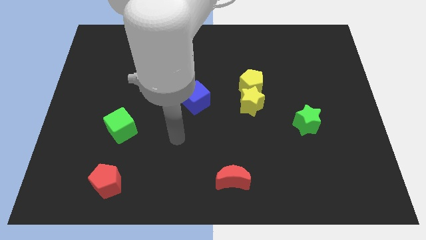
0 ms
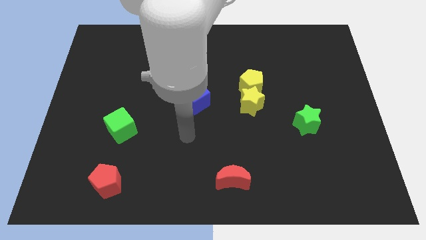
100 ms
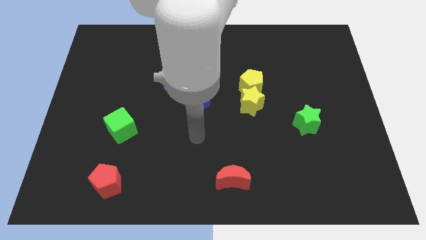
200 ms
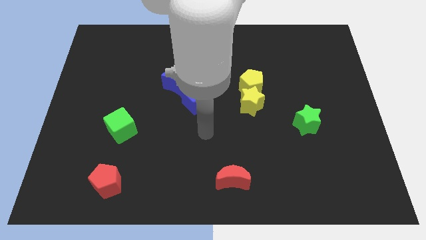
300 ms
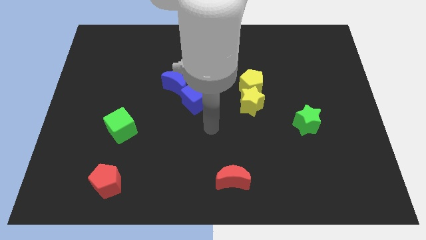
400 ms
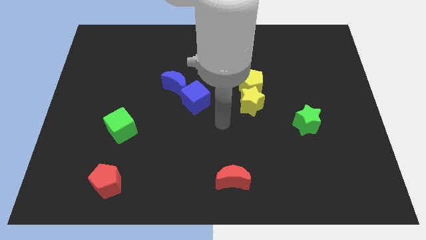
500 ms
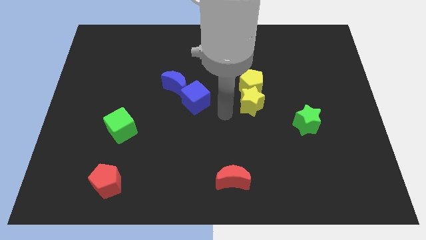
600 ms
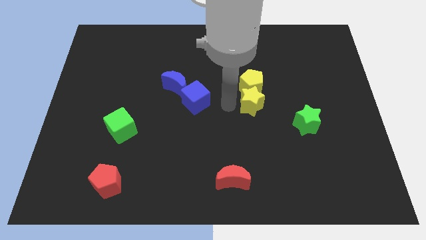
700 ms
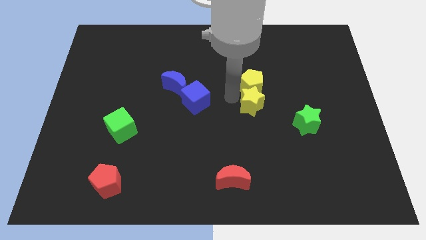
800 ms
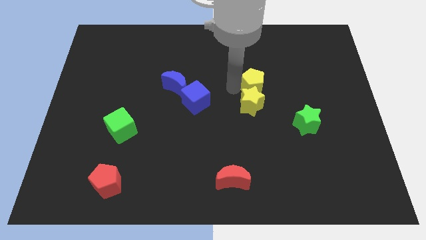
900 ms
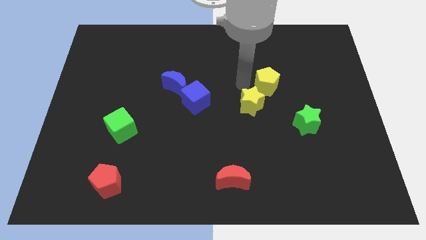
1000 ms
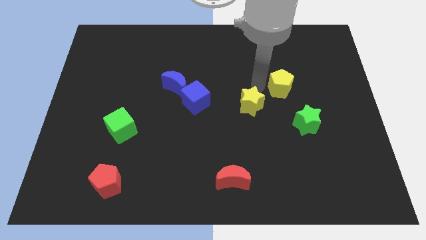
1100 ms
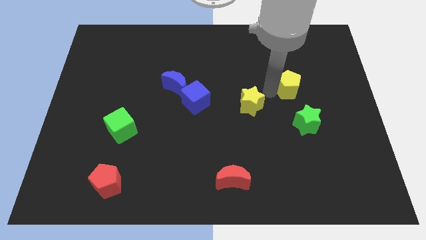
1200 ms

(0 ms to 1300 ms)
separate the yellow star from the yellow pentagon

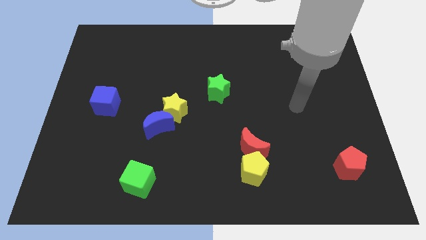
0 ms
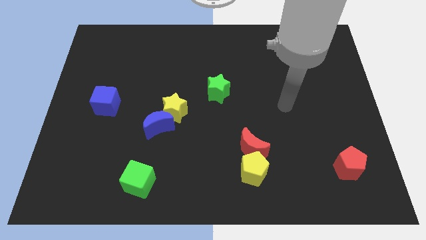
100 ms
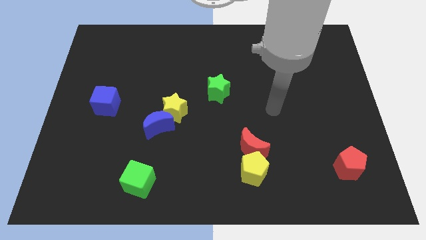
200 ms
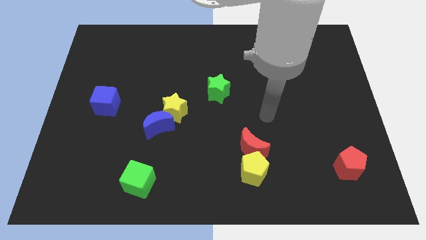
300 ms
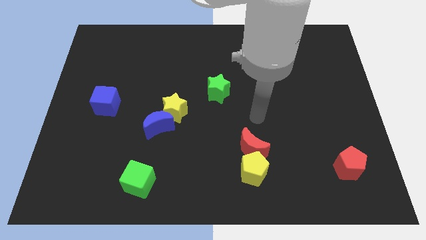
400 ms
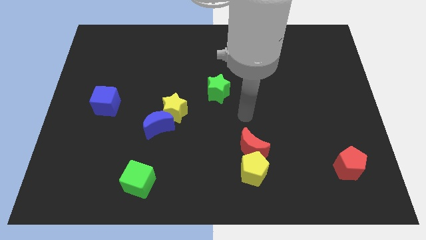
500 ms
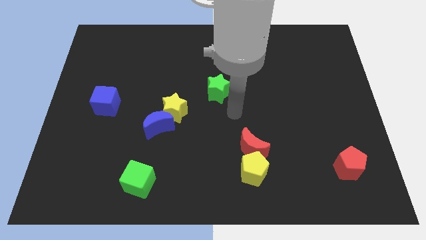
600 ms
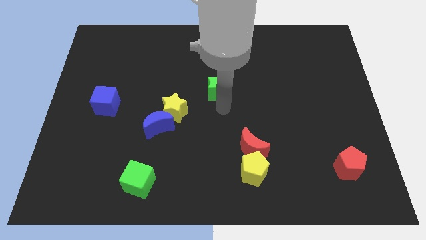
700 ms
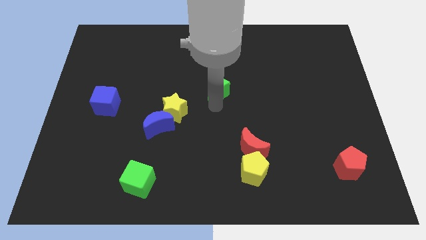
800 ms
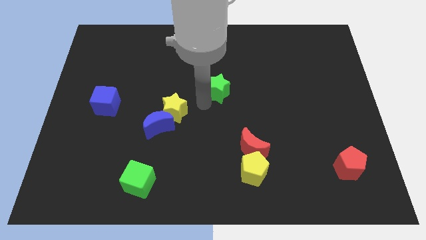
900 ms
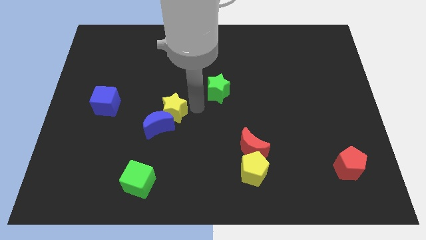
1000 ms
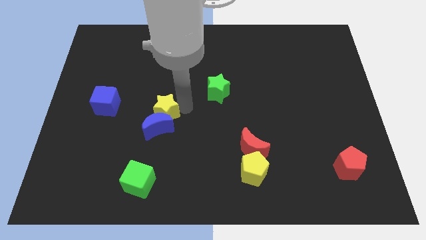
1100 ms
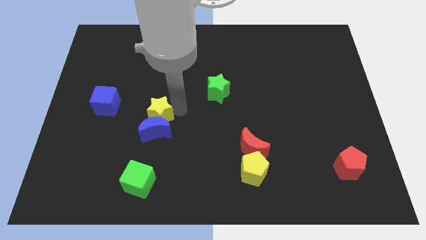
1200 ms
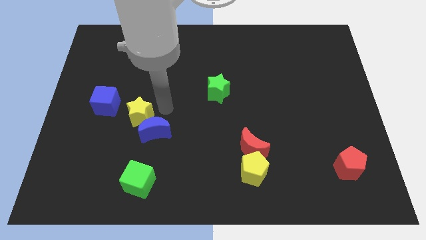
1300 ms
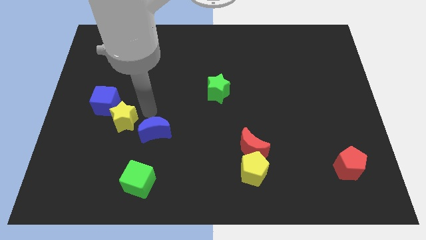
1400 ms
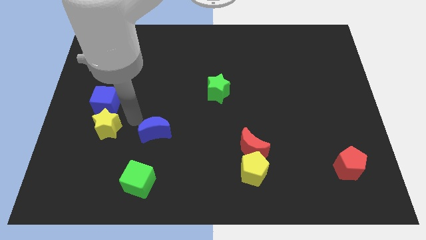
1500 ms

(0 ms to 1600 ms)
separate the blue moon from the yellow star

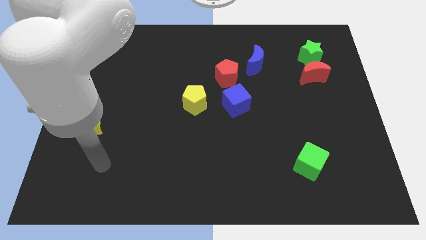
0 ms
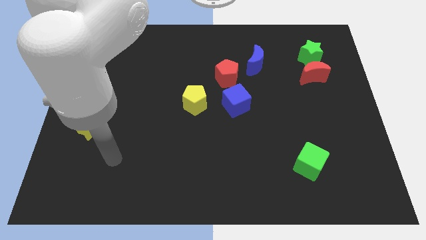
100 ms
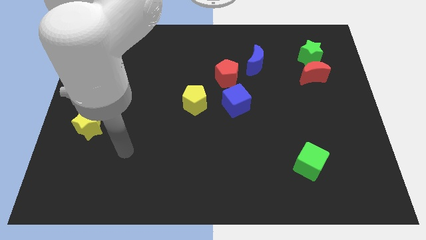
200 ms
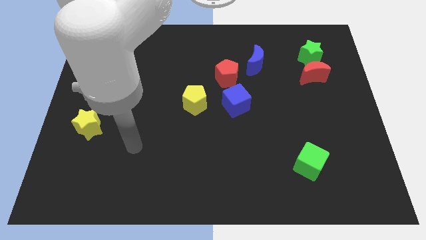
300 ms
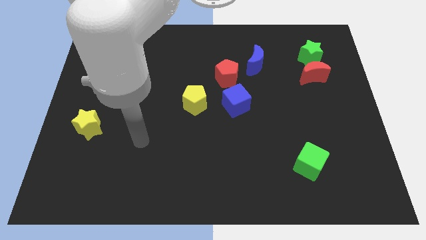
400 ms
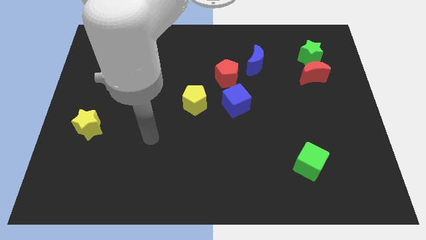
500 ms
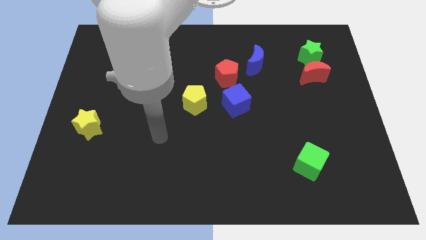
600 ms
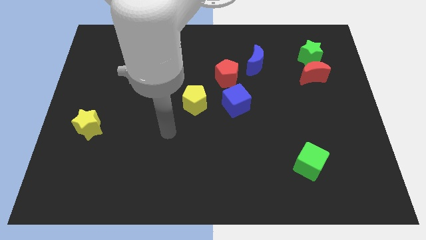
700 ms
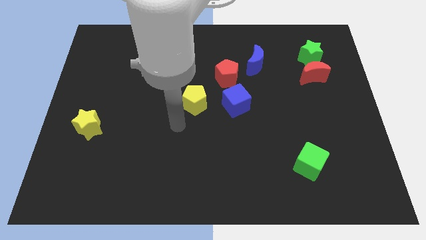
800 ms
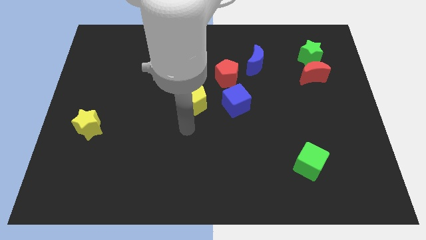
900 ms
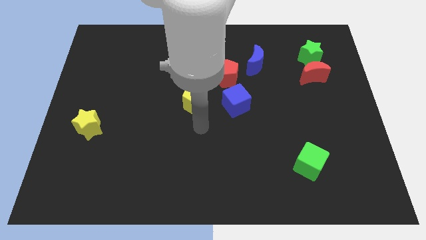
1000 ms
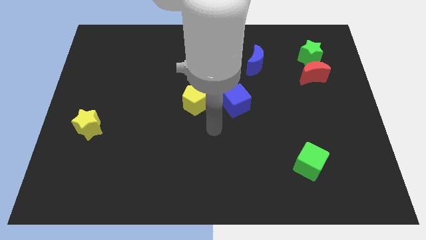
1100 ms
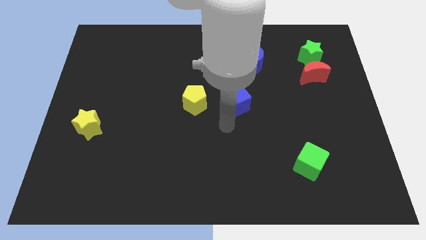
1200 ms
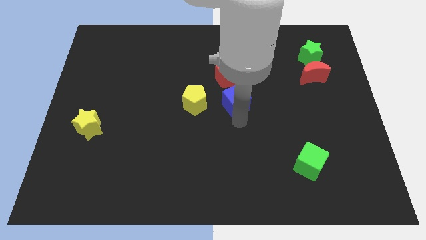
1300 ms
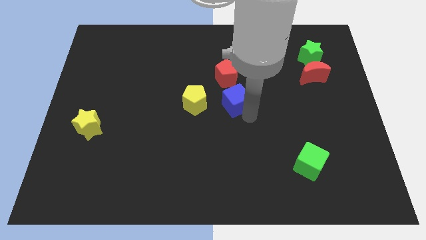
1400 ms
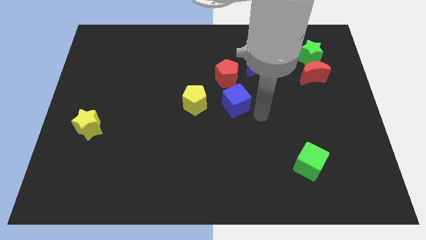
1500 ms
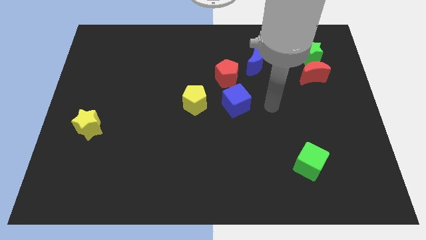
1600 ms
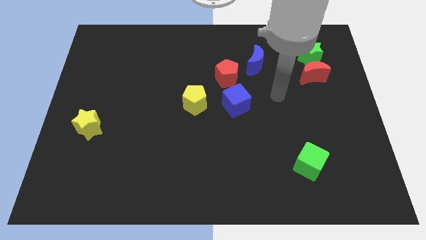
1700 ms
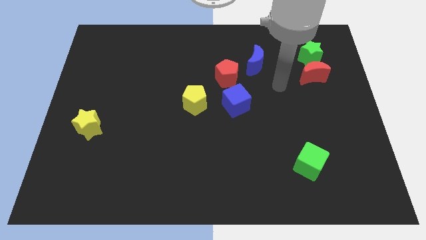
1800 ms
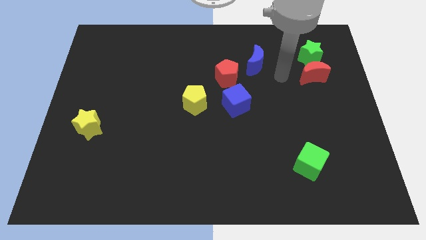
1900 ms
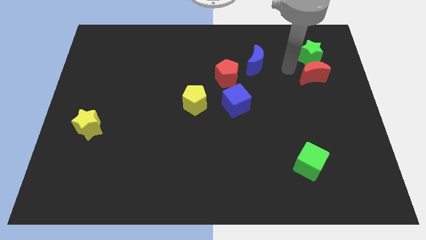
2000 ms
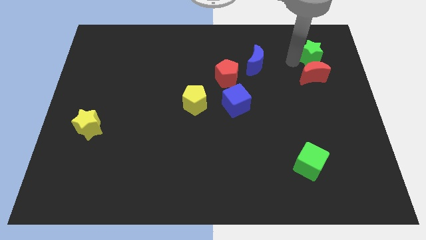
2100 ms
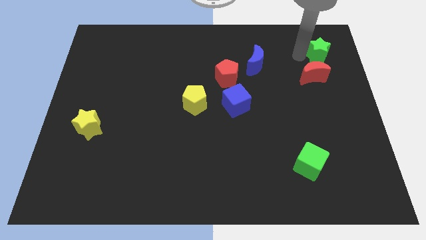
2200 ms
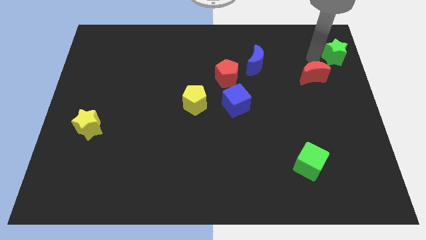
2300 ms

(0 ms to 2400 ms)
separate the red moon from the green star

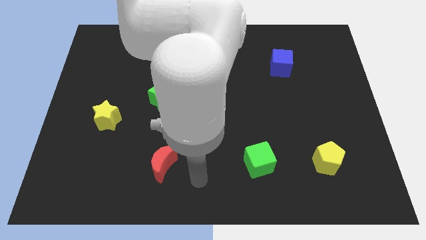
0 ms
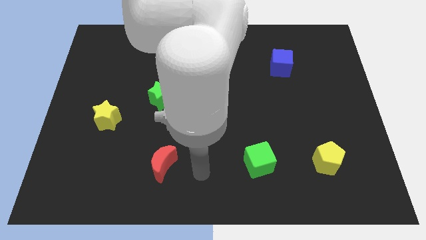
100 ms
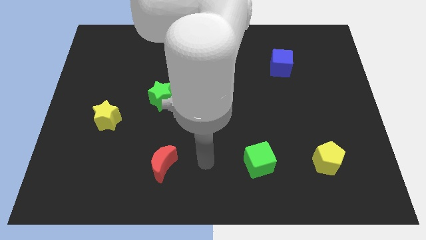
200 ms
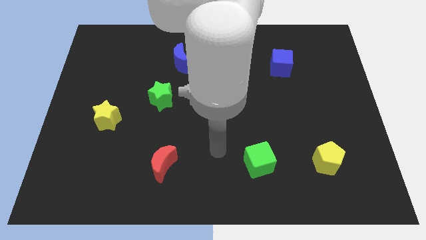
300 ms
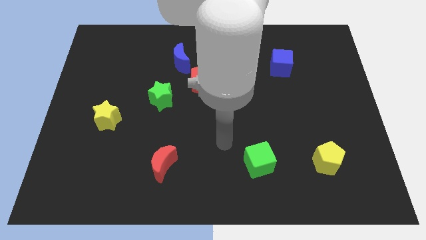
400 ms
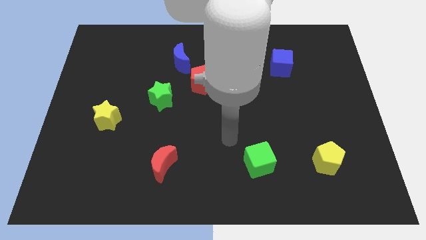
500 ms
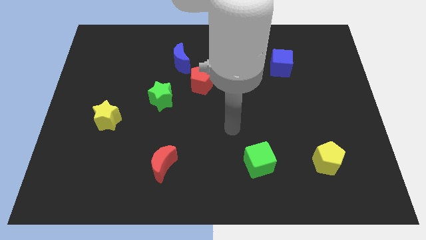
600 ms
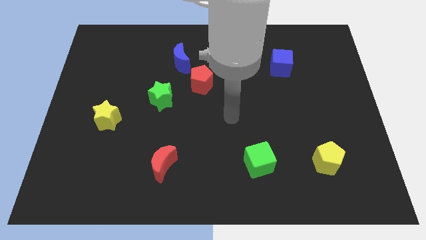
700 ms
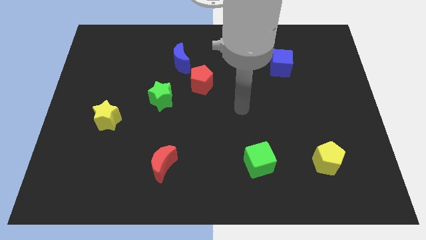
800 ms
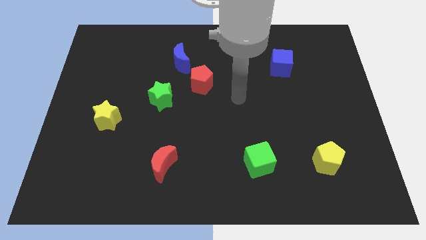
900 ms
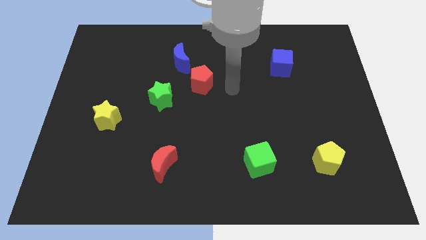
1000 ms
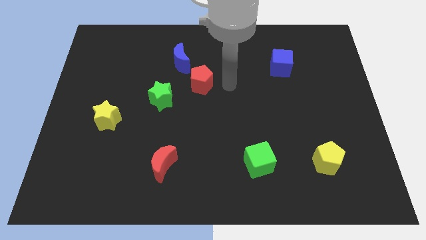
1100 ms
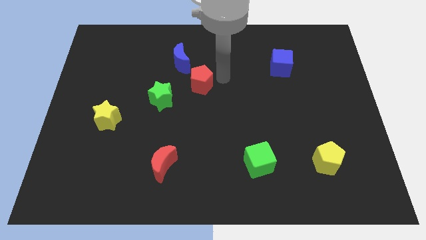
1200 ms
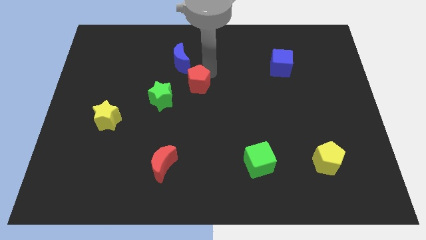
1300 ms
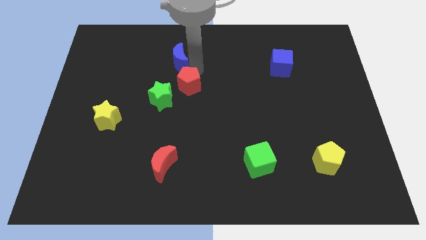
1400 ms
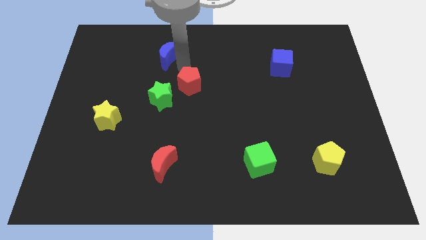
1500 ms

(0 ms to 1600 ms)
separate the red pentagon from the blue moon

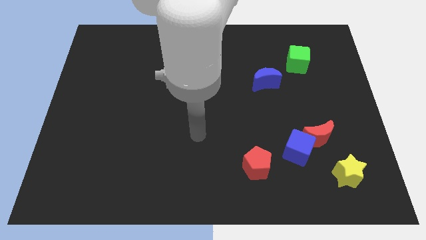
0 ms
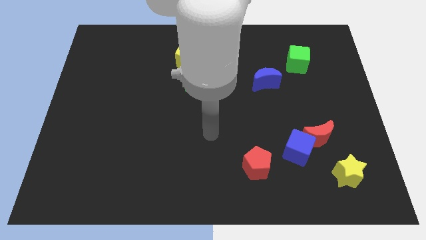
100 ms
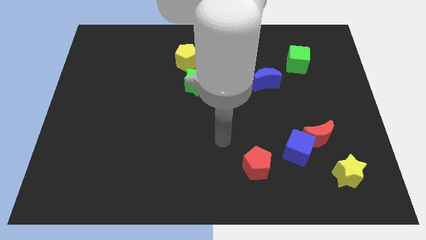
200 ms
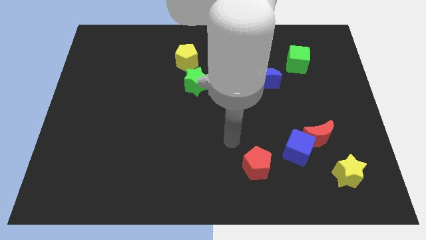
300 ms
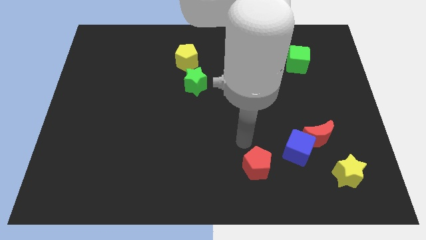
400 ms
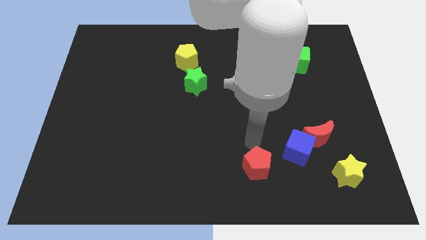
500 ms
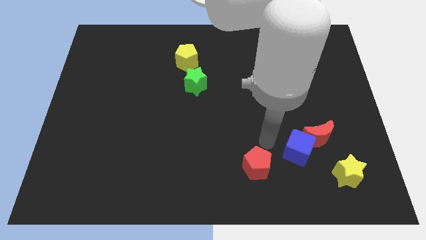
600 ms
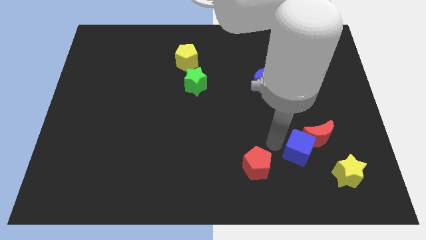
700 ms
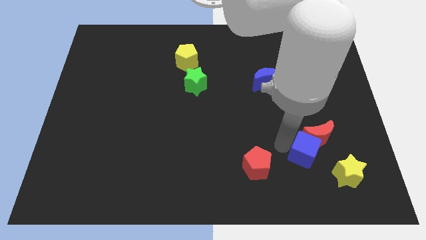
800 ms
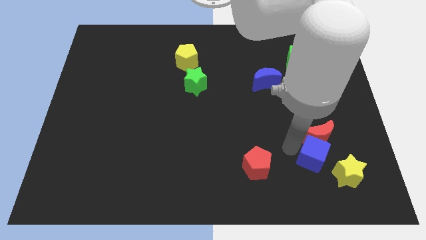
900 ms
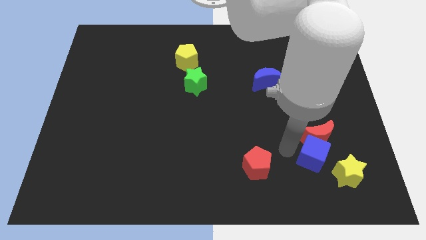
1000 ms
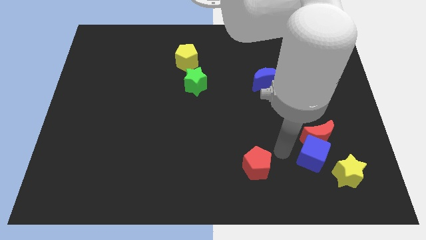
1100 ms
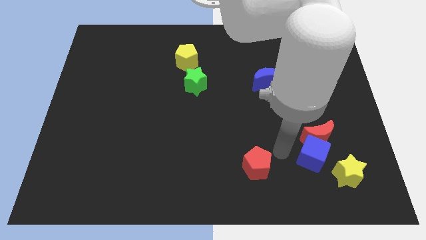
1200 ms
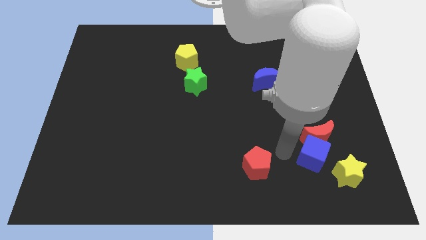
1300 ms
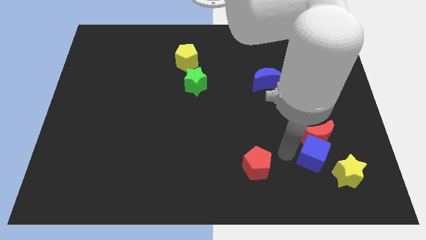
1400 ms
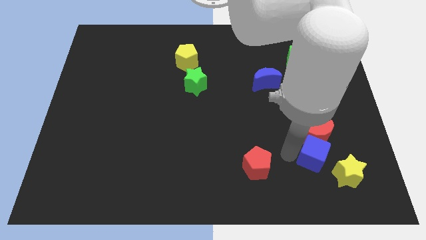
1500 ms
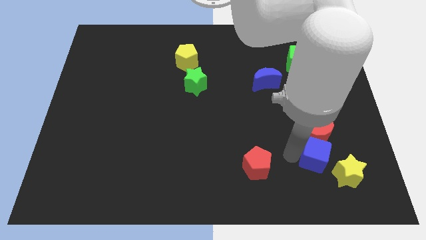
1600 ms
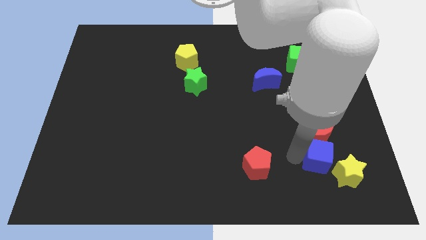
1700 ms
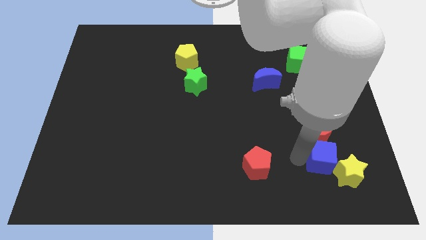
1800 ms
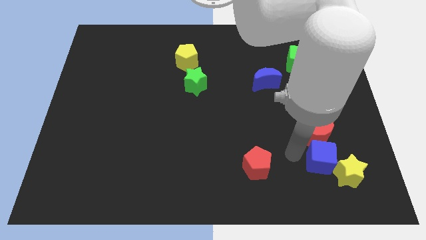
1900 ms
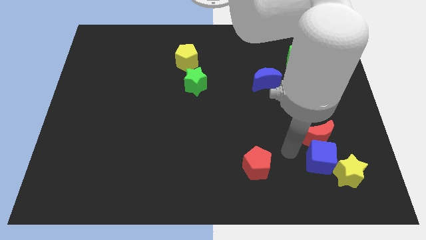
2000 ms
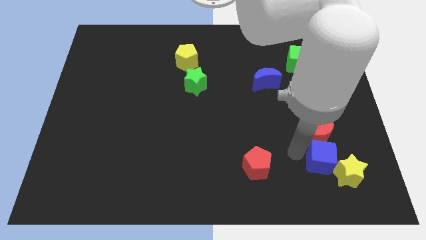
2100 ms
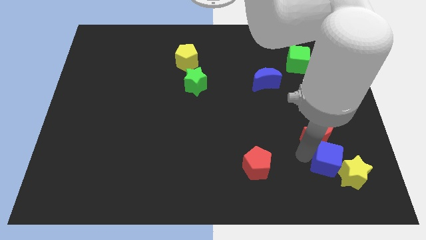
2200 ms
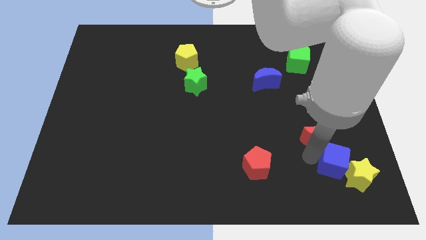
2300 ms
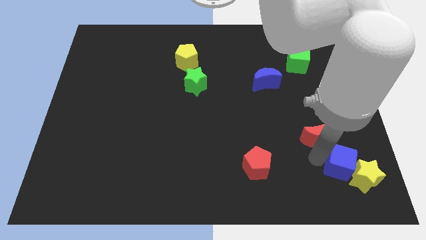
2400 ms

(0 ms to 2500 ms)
move the blue cube away from the red moon and red pentagon
